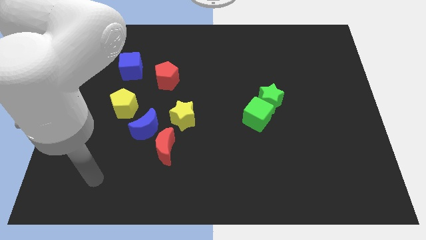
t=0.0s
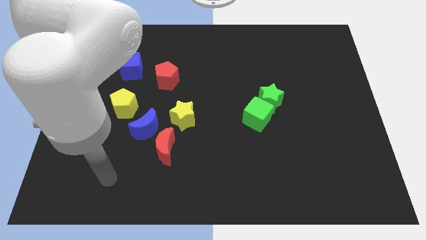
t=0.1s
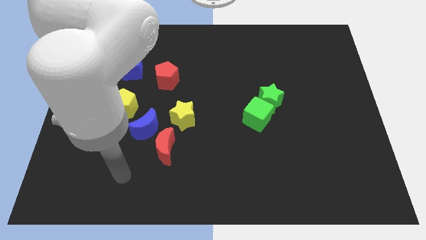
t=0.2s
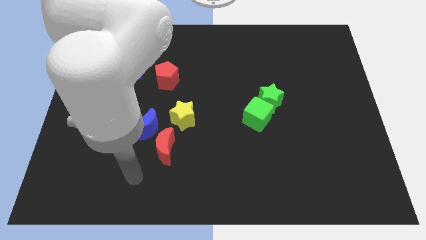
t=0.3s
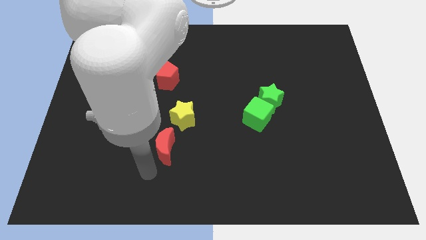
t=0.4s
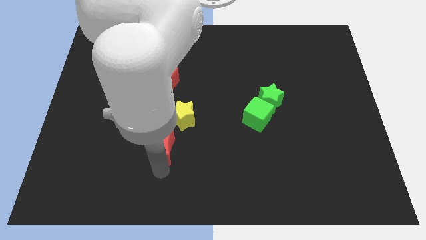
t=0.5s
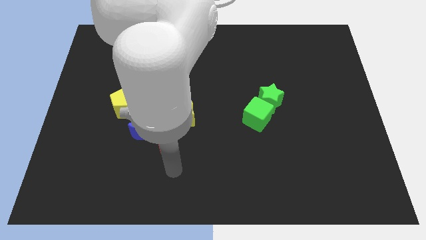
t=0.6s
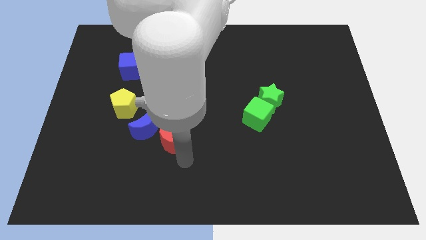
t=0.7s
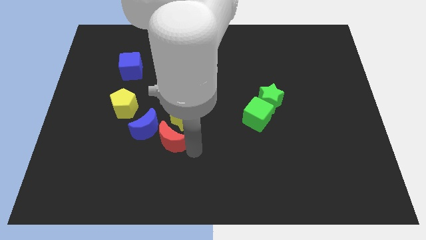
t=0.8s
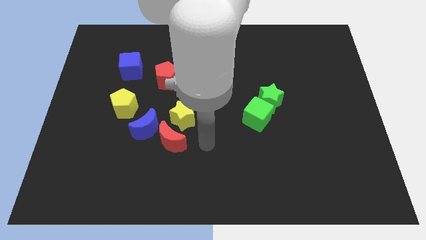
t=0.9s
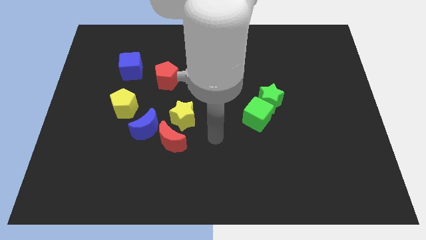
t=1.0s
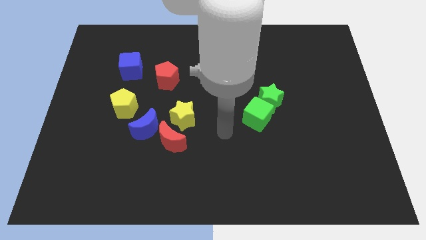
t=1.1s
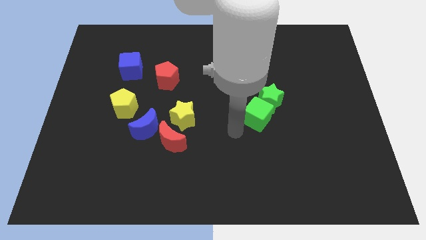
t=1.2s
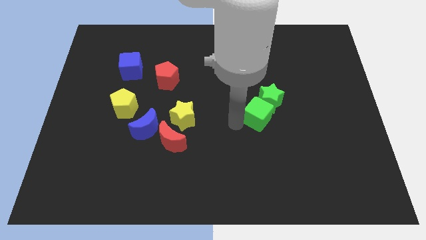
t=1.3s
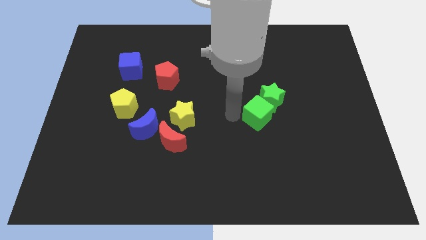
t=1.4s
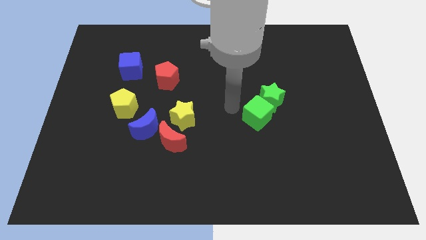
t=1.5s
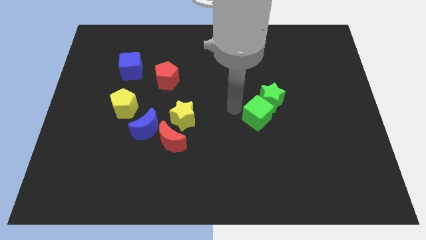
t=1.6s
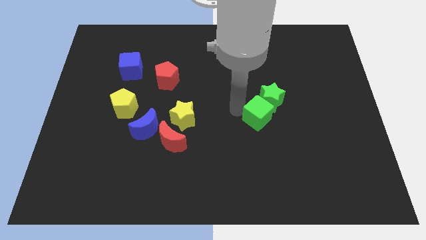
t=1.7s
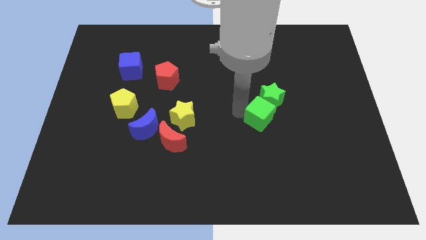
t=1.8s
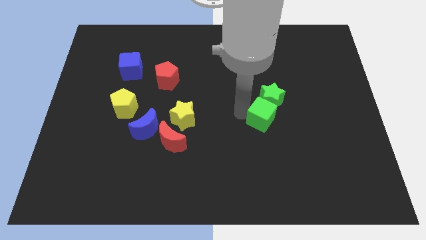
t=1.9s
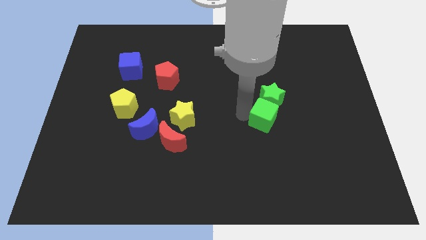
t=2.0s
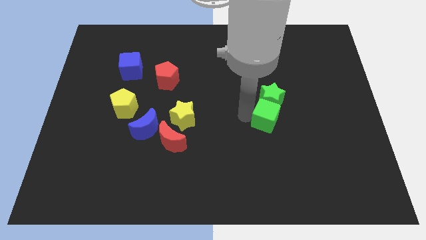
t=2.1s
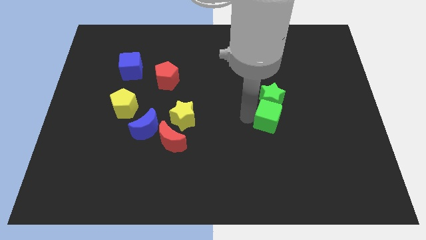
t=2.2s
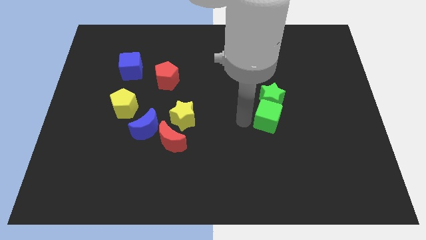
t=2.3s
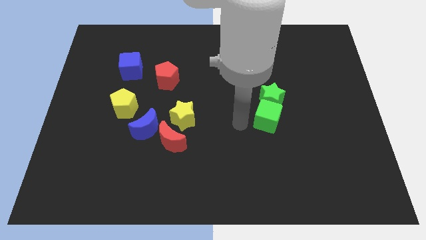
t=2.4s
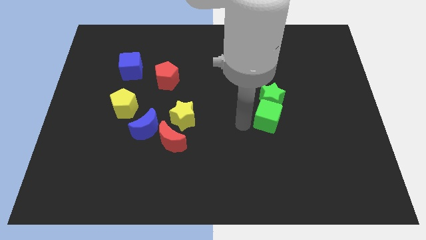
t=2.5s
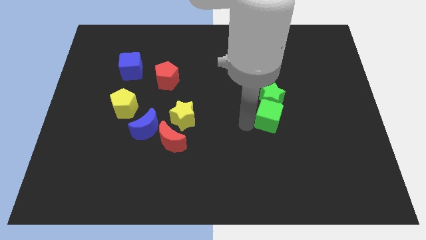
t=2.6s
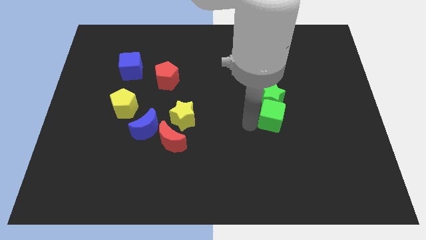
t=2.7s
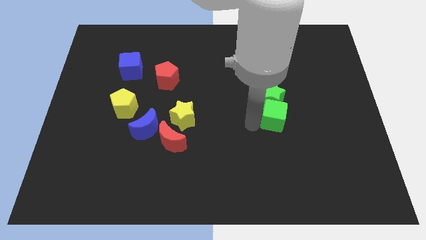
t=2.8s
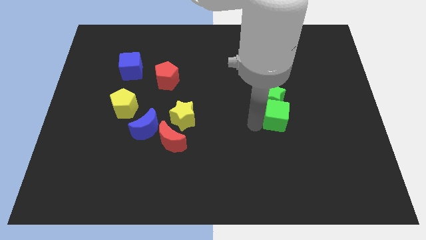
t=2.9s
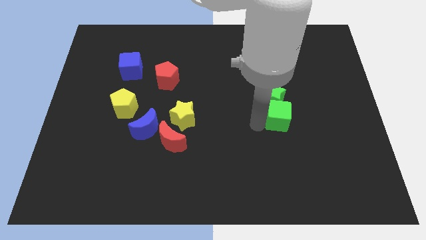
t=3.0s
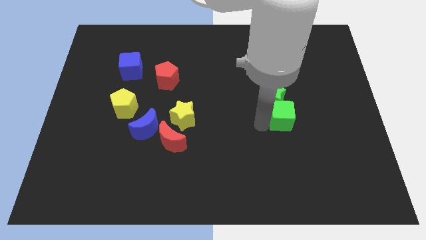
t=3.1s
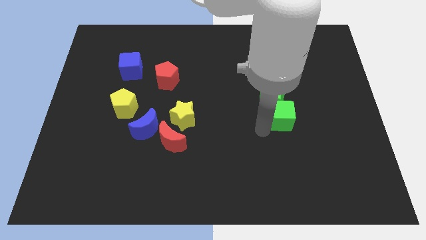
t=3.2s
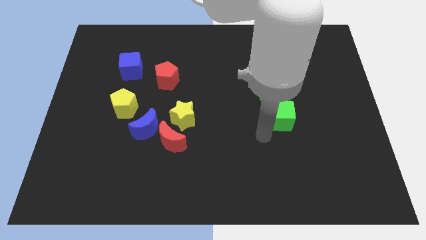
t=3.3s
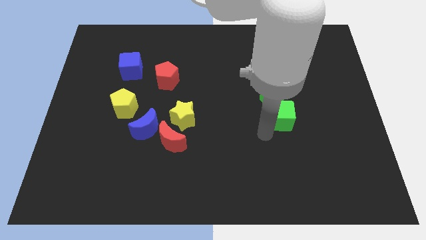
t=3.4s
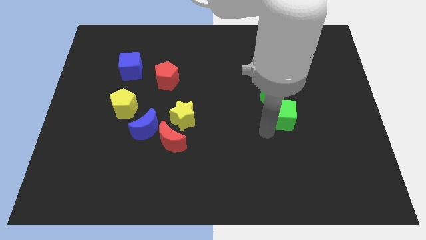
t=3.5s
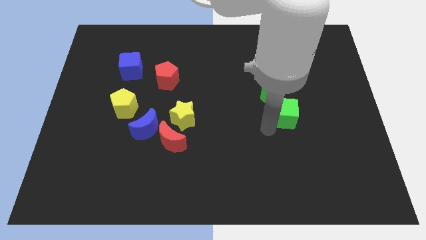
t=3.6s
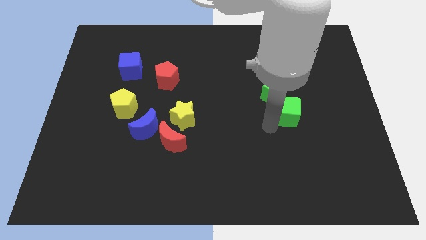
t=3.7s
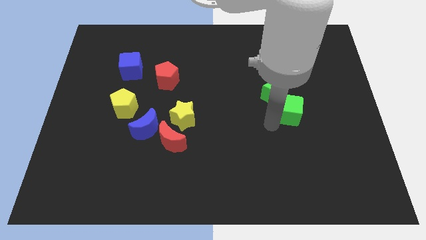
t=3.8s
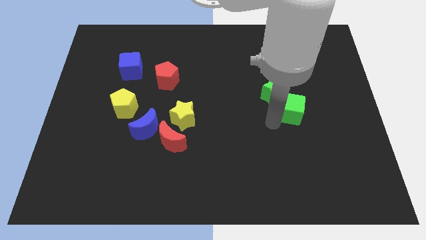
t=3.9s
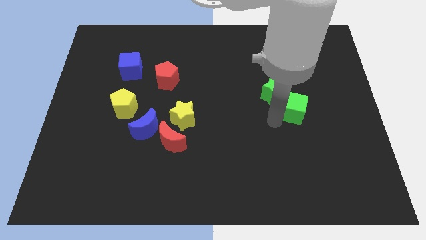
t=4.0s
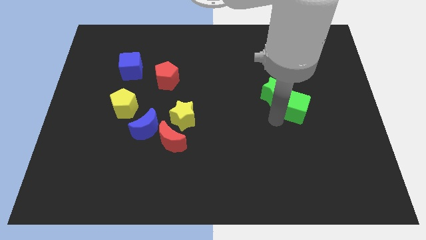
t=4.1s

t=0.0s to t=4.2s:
slide the green cube up and then to the right slightly

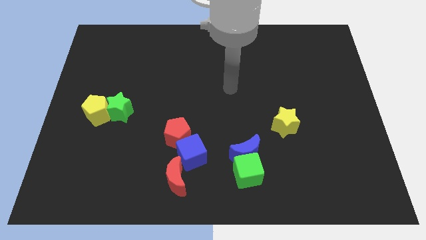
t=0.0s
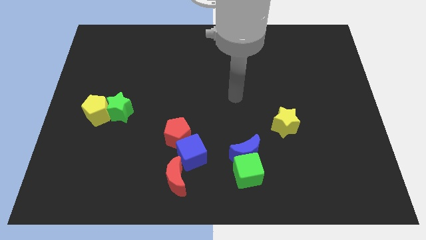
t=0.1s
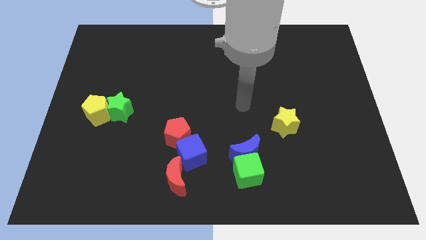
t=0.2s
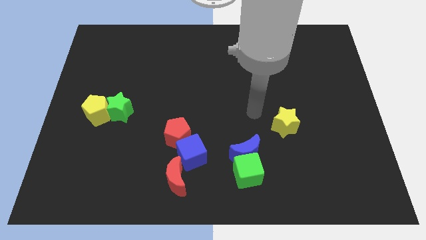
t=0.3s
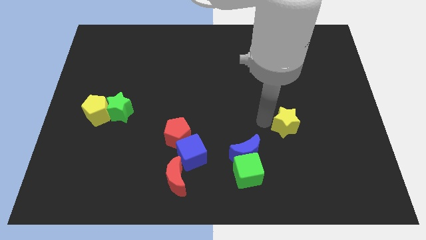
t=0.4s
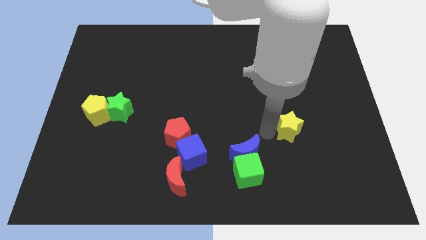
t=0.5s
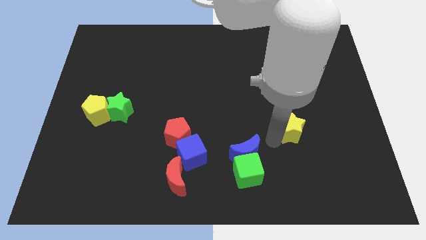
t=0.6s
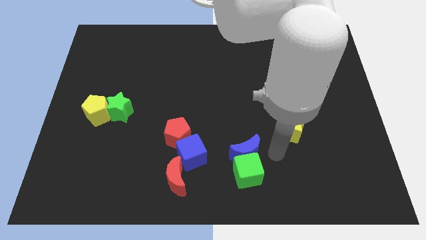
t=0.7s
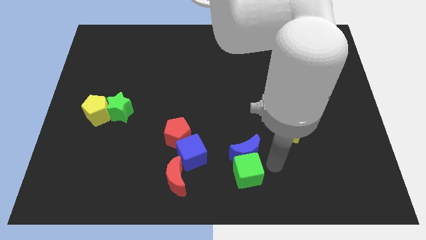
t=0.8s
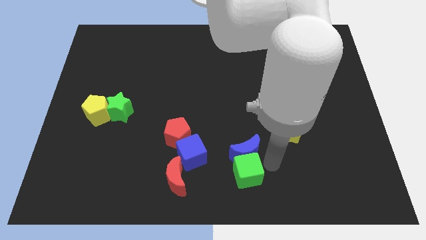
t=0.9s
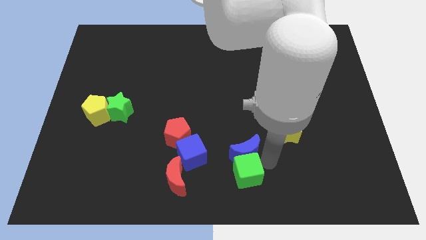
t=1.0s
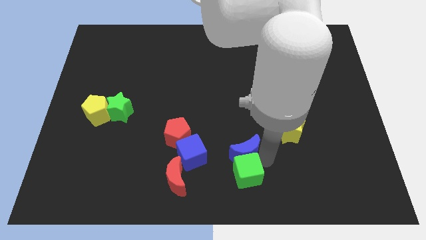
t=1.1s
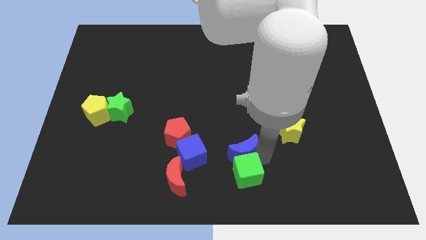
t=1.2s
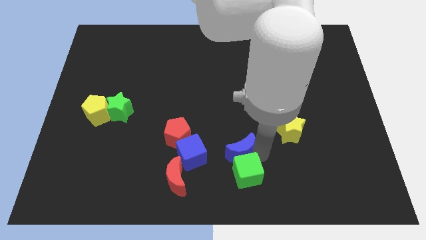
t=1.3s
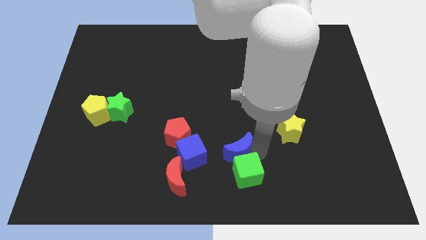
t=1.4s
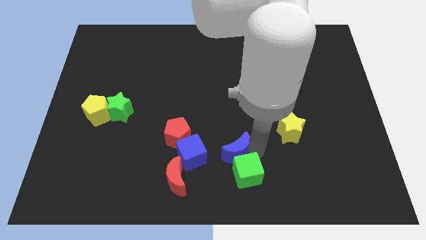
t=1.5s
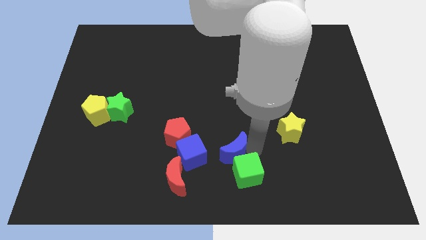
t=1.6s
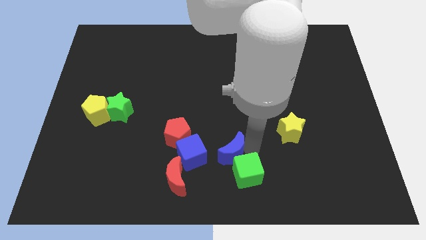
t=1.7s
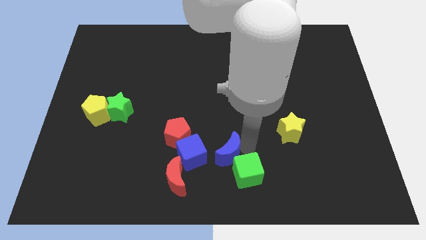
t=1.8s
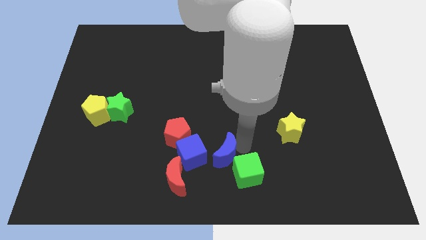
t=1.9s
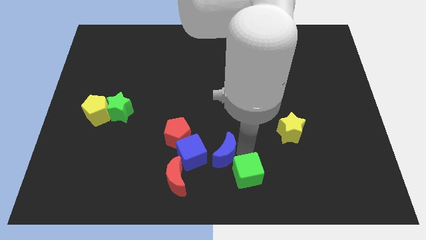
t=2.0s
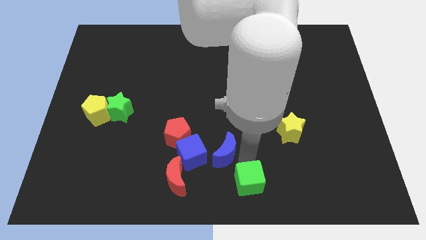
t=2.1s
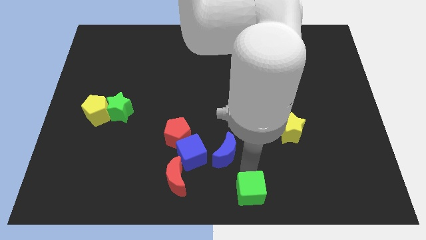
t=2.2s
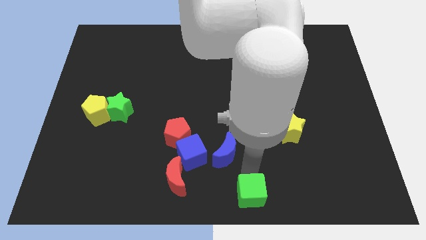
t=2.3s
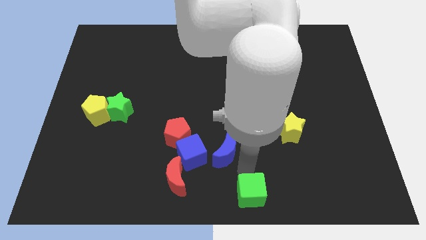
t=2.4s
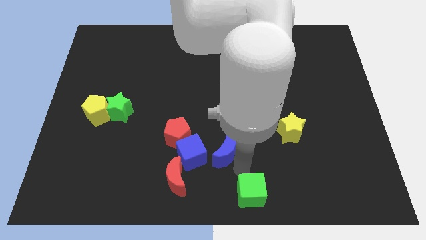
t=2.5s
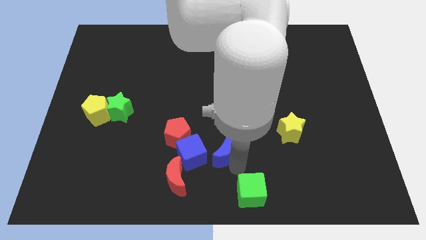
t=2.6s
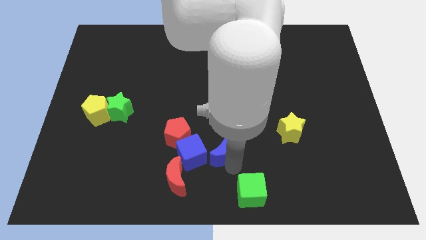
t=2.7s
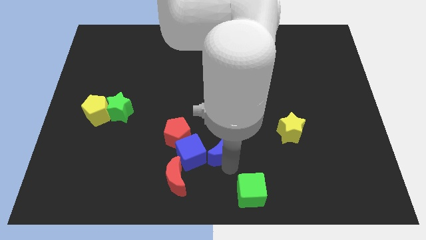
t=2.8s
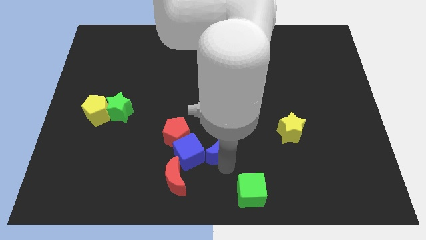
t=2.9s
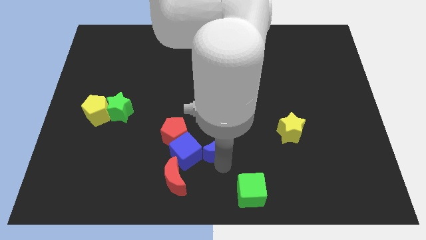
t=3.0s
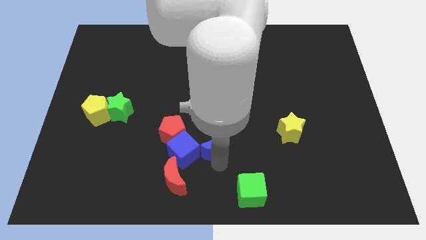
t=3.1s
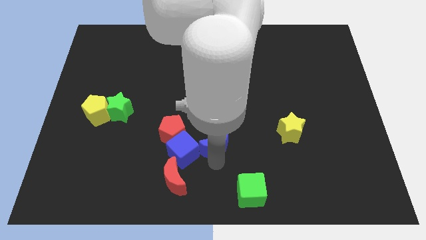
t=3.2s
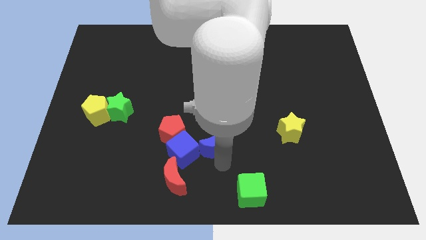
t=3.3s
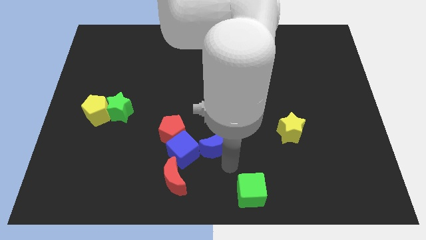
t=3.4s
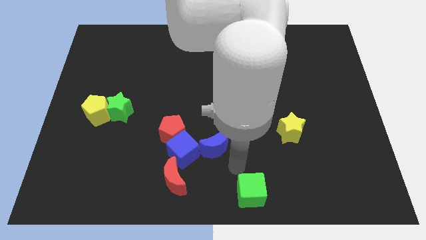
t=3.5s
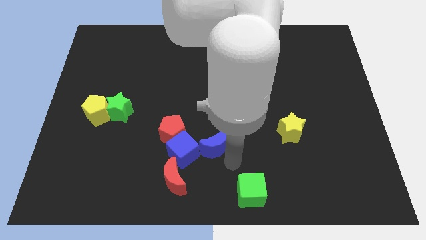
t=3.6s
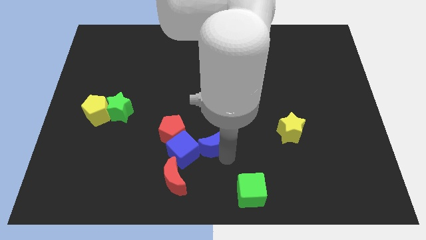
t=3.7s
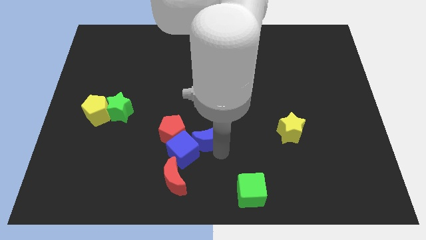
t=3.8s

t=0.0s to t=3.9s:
slightly slide the blue moon left

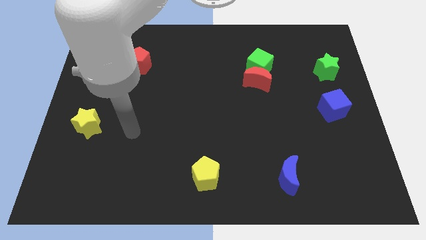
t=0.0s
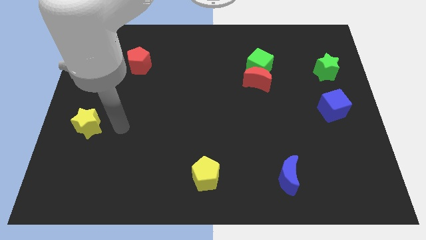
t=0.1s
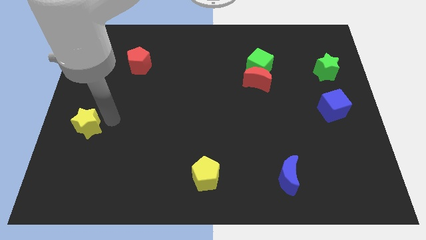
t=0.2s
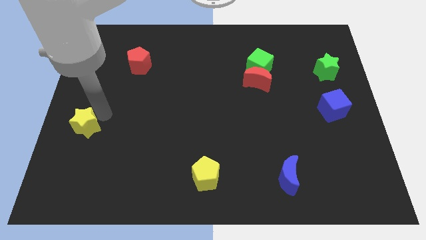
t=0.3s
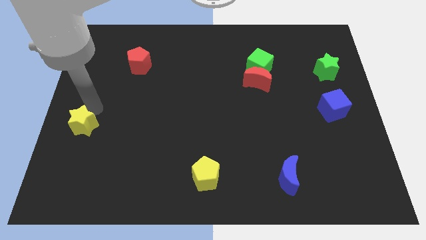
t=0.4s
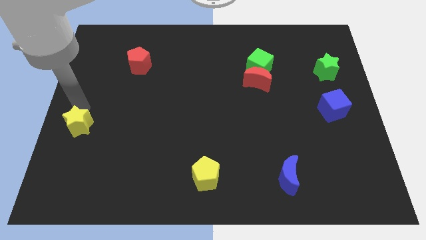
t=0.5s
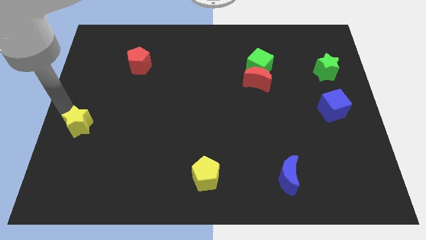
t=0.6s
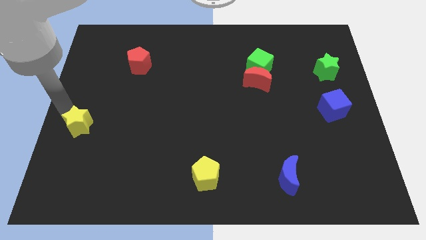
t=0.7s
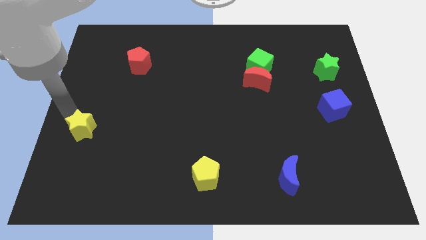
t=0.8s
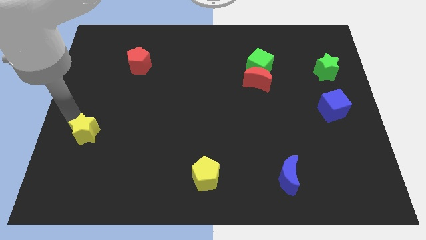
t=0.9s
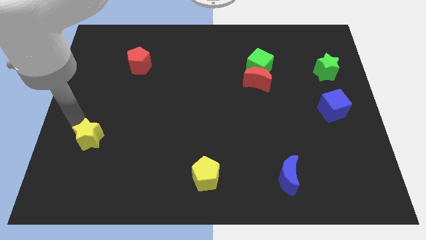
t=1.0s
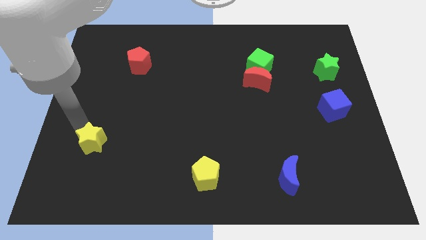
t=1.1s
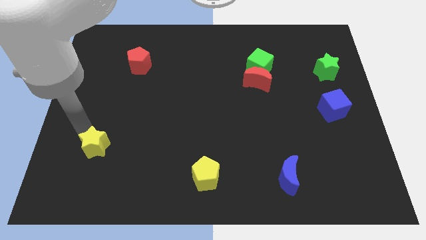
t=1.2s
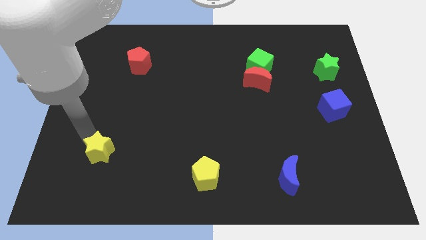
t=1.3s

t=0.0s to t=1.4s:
push the yellow star downwards and to the right slightly
